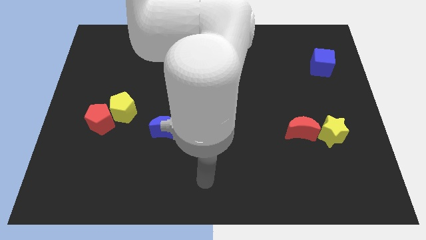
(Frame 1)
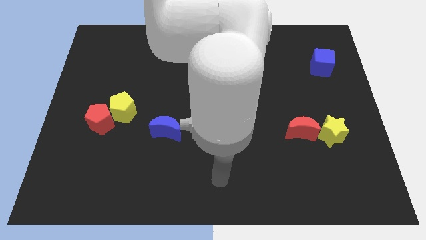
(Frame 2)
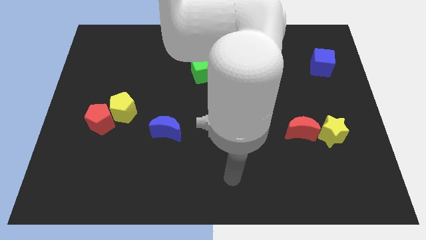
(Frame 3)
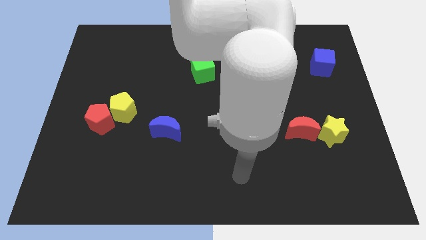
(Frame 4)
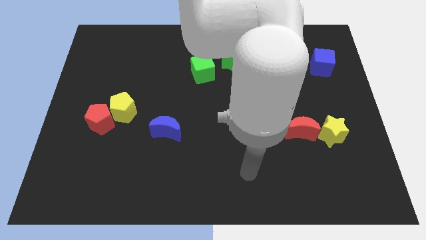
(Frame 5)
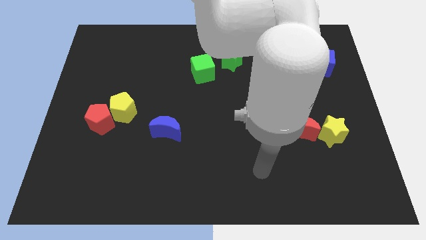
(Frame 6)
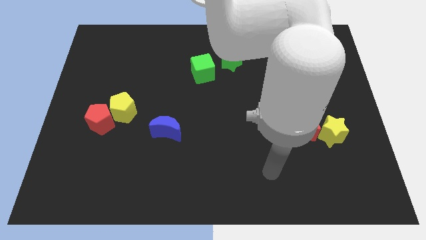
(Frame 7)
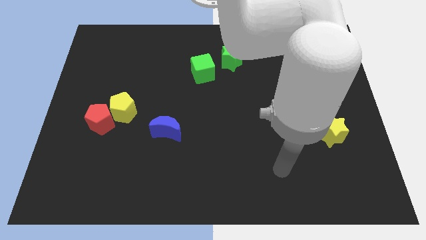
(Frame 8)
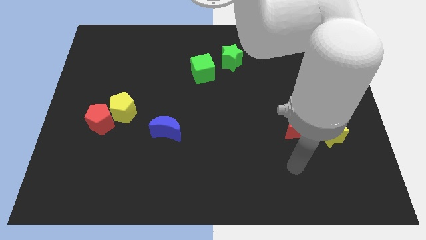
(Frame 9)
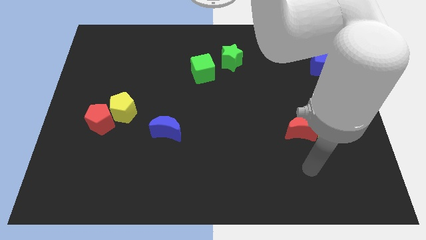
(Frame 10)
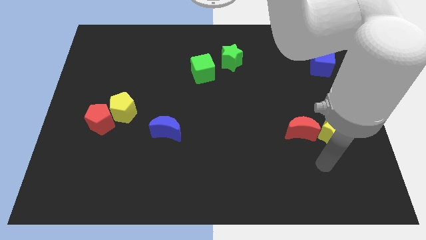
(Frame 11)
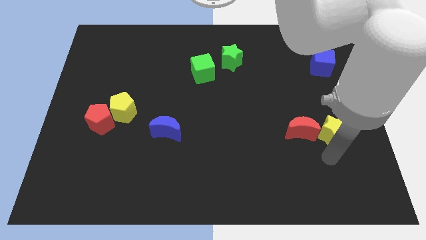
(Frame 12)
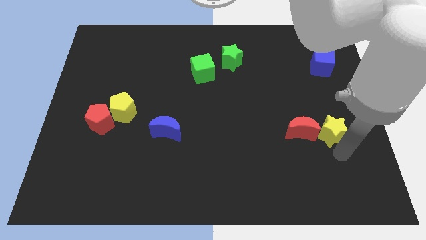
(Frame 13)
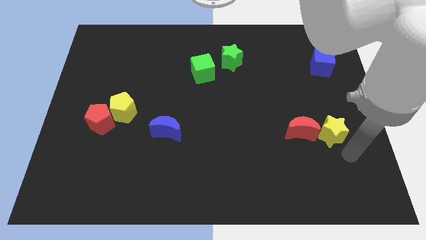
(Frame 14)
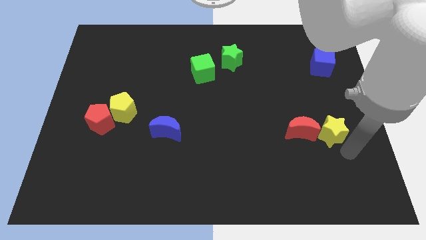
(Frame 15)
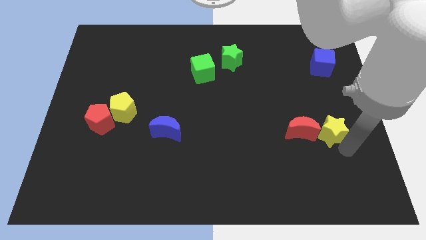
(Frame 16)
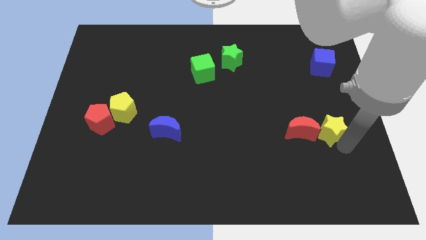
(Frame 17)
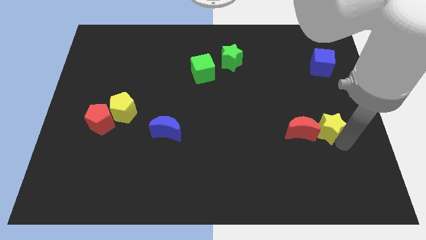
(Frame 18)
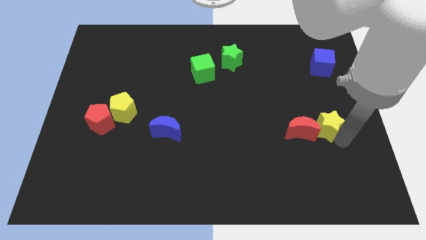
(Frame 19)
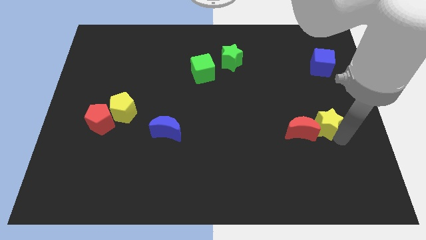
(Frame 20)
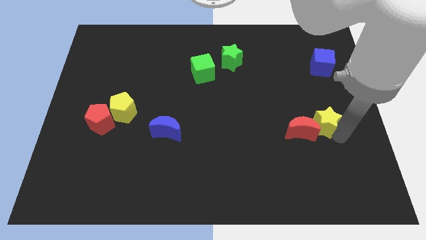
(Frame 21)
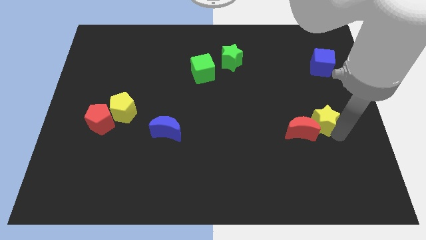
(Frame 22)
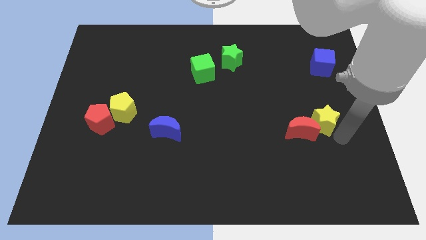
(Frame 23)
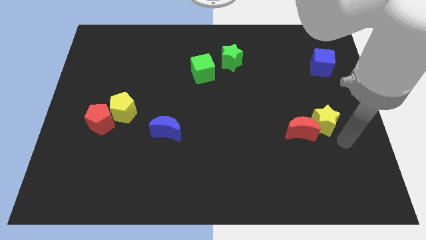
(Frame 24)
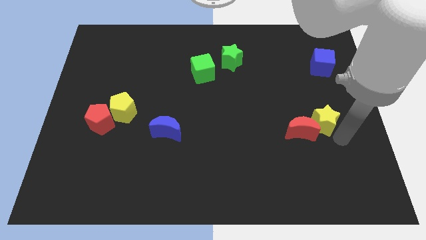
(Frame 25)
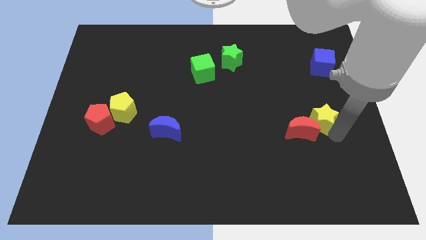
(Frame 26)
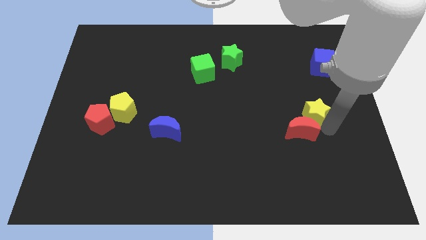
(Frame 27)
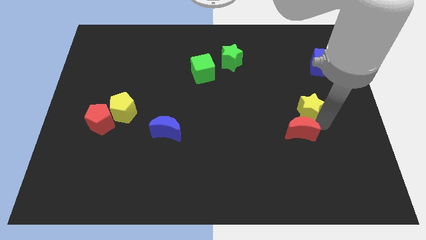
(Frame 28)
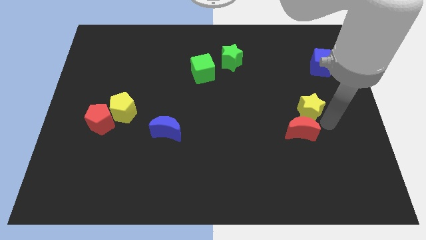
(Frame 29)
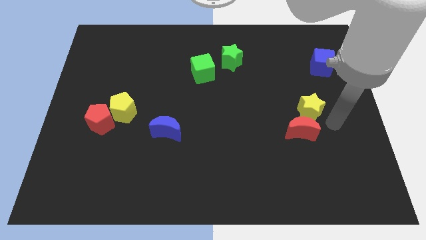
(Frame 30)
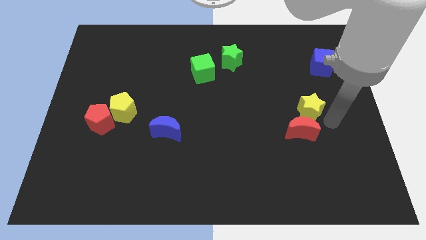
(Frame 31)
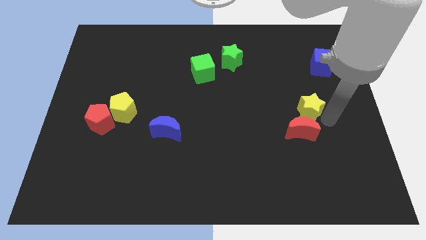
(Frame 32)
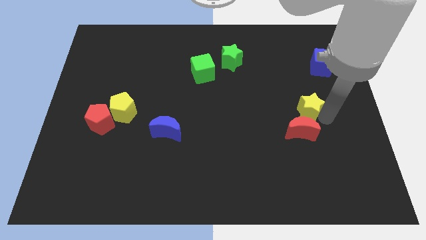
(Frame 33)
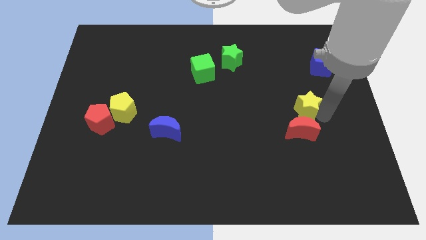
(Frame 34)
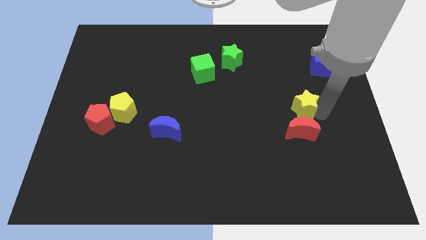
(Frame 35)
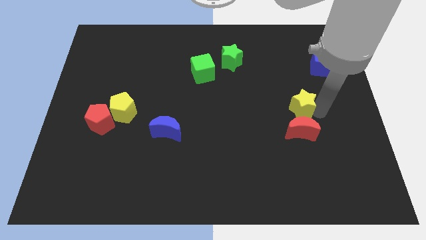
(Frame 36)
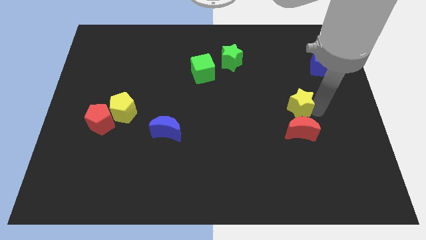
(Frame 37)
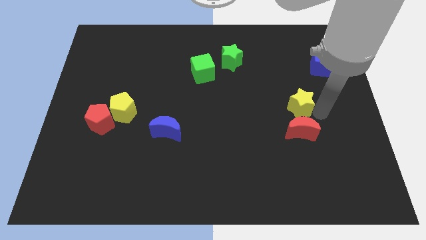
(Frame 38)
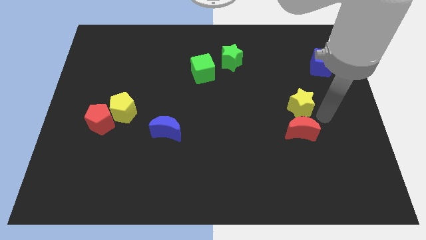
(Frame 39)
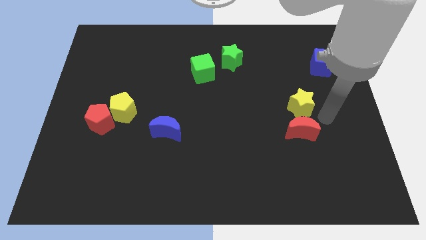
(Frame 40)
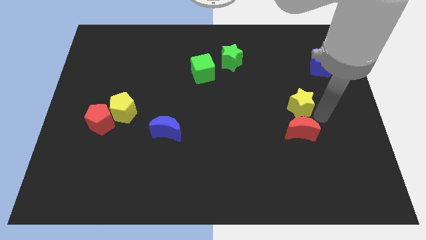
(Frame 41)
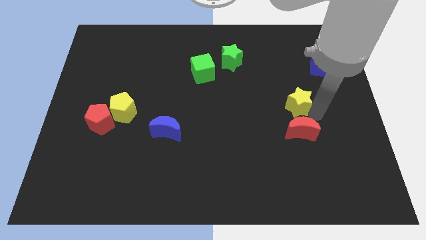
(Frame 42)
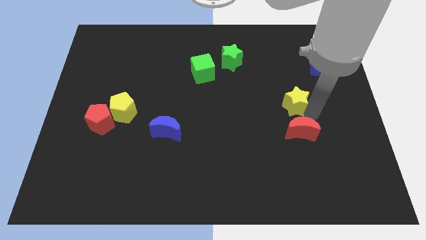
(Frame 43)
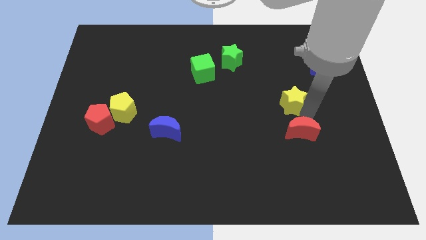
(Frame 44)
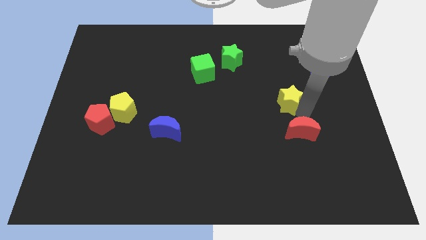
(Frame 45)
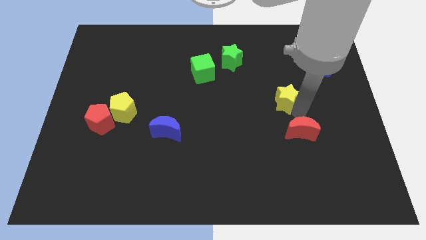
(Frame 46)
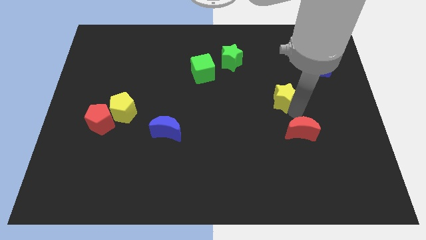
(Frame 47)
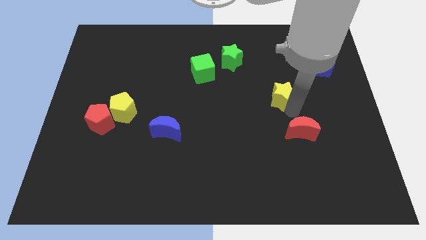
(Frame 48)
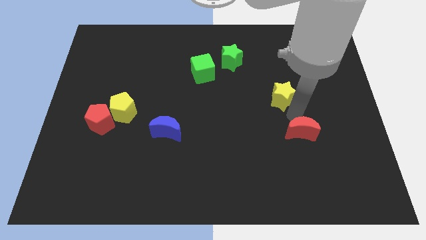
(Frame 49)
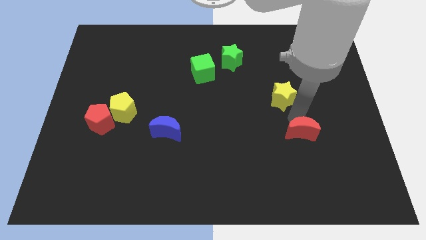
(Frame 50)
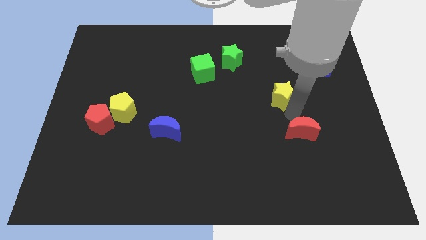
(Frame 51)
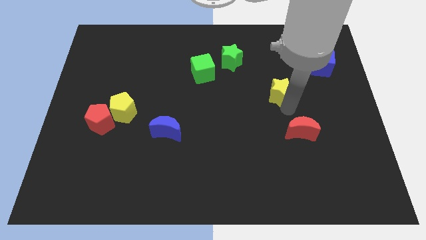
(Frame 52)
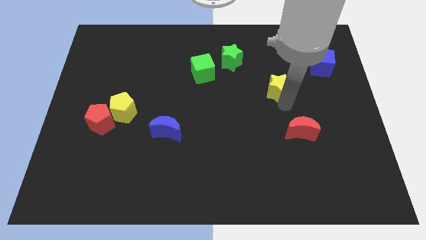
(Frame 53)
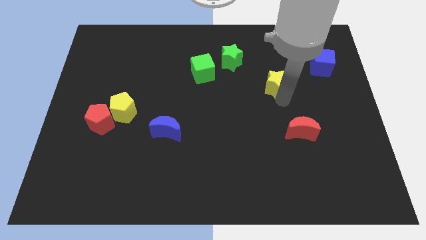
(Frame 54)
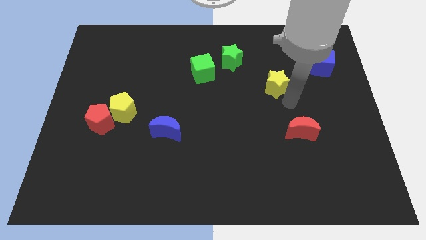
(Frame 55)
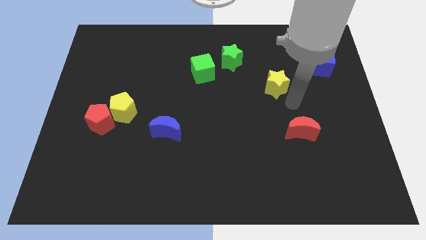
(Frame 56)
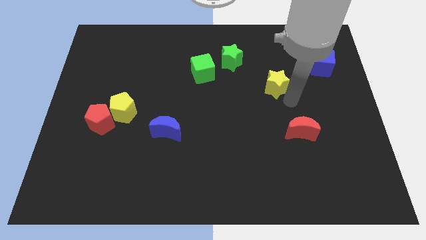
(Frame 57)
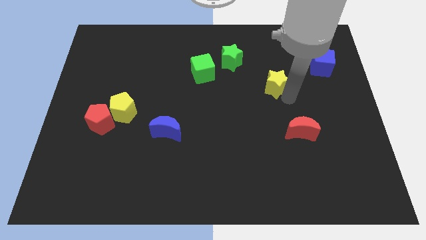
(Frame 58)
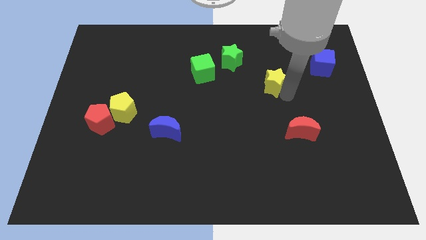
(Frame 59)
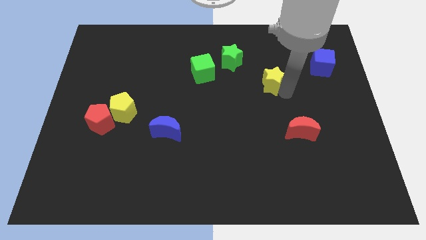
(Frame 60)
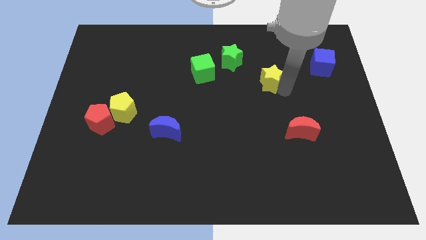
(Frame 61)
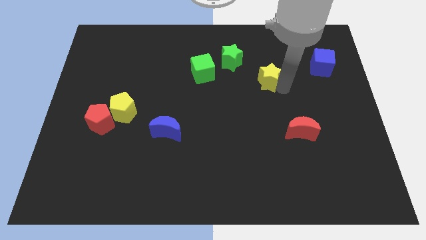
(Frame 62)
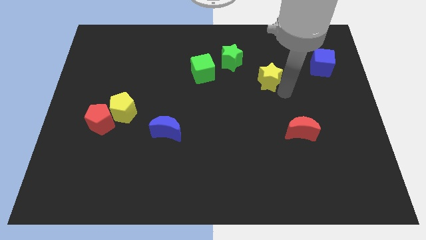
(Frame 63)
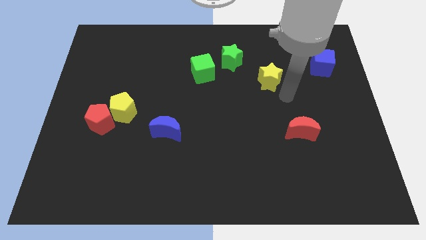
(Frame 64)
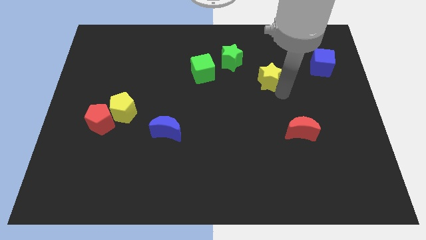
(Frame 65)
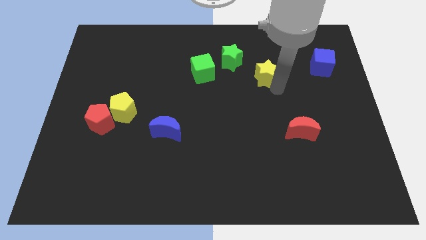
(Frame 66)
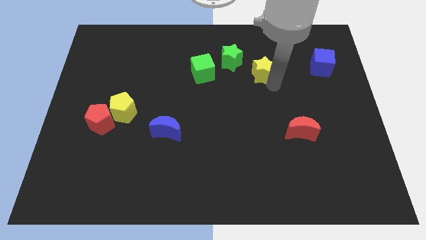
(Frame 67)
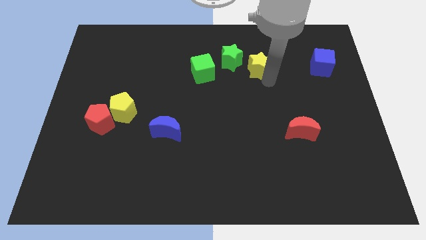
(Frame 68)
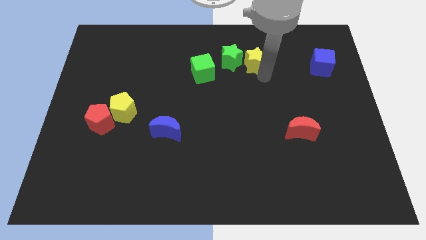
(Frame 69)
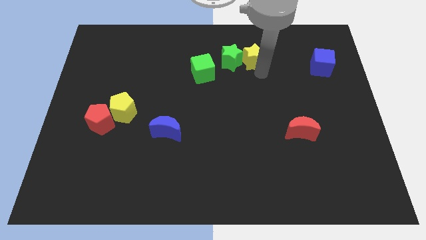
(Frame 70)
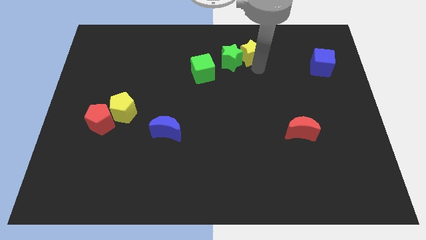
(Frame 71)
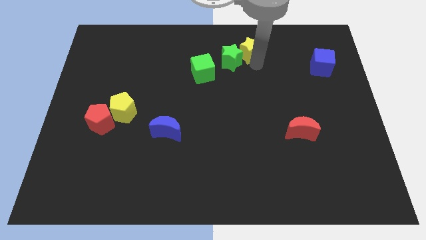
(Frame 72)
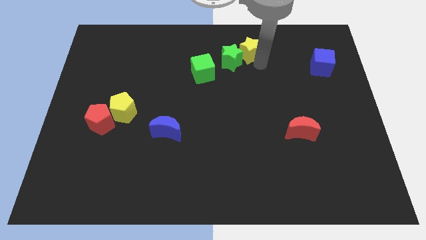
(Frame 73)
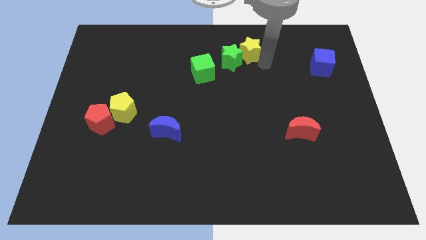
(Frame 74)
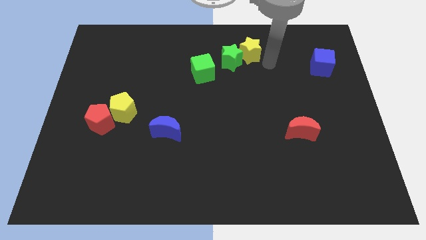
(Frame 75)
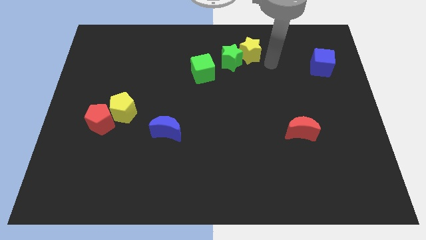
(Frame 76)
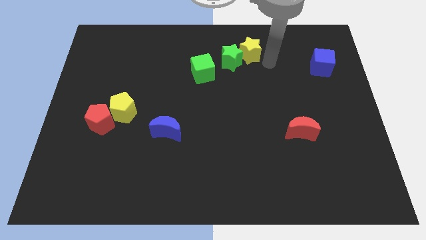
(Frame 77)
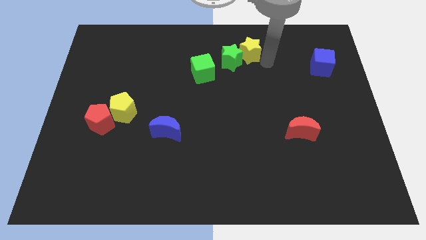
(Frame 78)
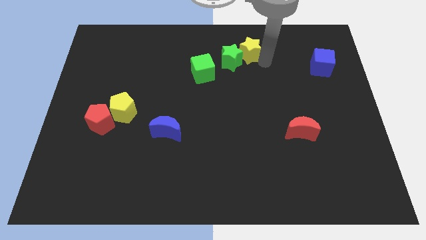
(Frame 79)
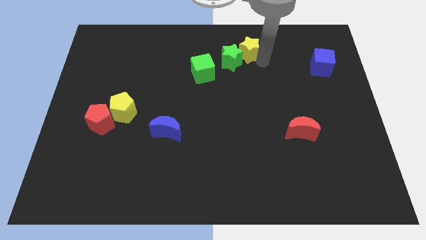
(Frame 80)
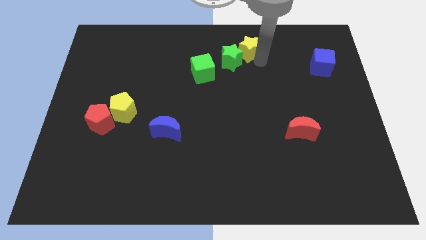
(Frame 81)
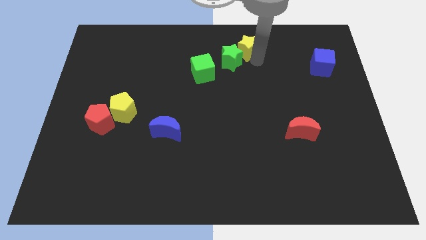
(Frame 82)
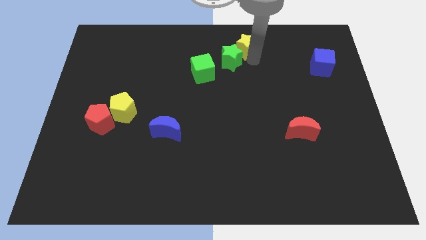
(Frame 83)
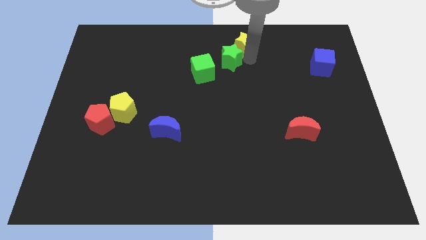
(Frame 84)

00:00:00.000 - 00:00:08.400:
push the yellow star to the top
